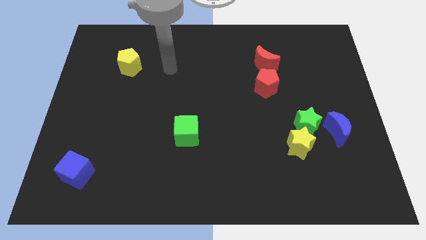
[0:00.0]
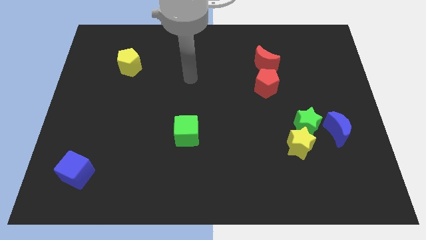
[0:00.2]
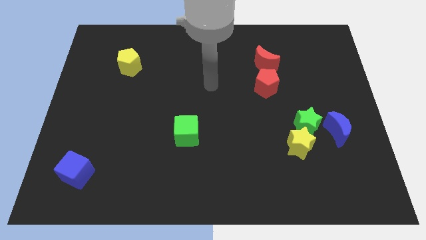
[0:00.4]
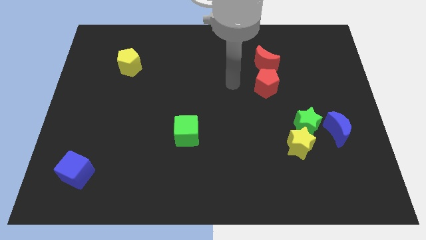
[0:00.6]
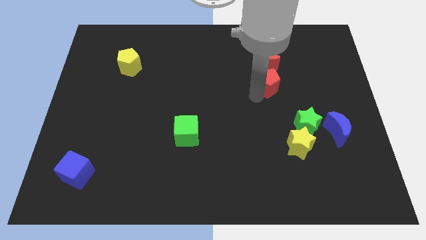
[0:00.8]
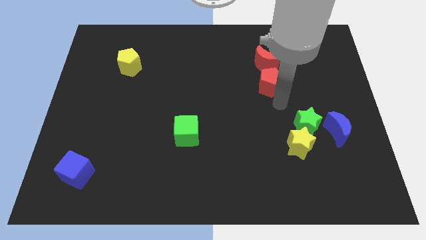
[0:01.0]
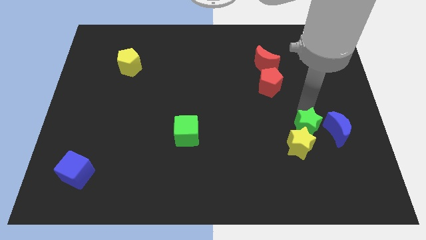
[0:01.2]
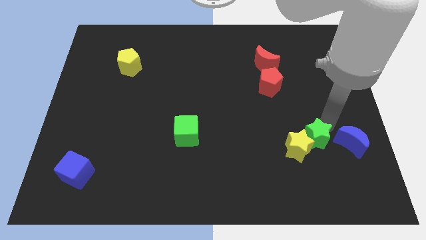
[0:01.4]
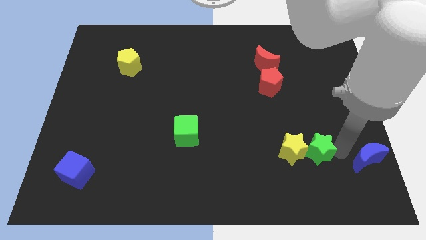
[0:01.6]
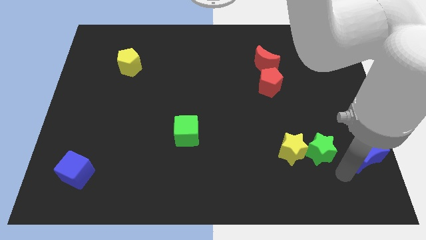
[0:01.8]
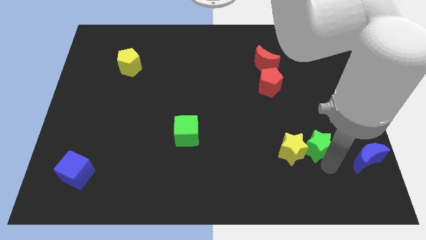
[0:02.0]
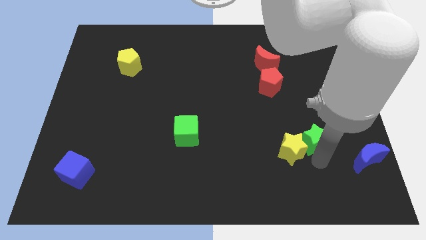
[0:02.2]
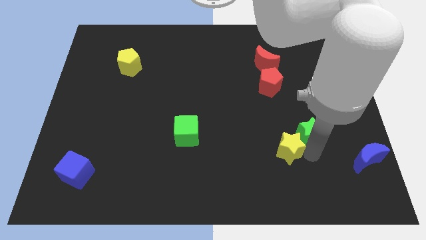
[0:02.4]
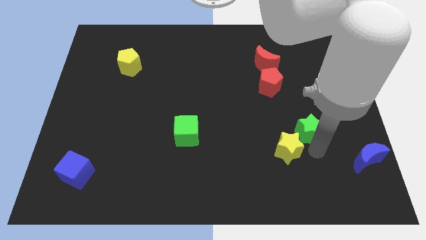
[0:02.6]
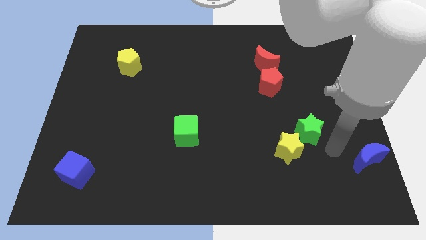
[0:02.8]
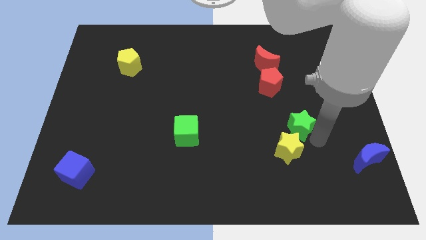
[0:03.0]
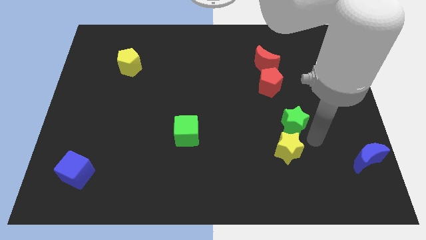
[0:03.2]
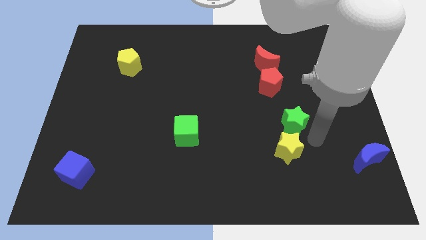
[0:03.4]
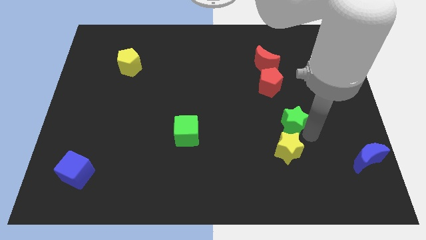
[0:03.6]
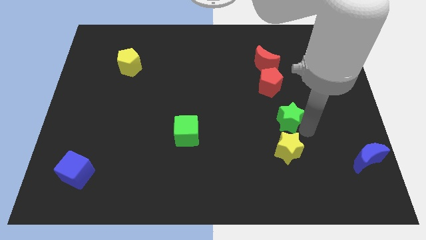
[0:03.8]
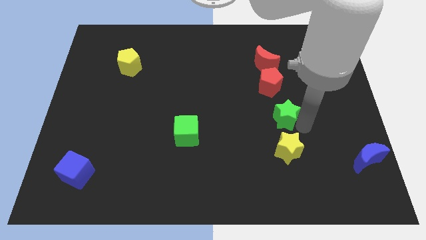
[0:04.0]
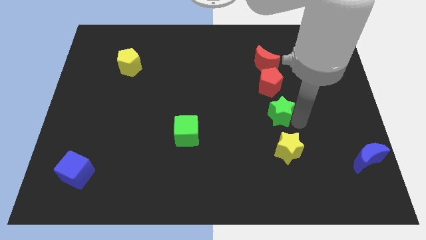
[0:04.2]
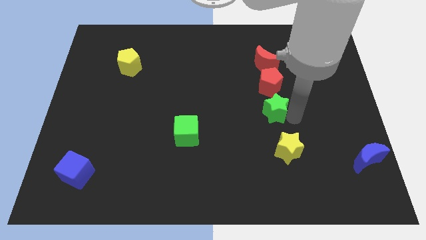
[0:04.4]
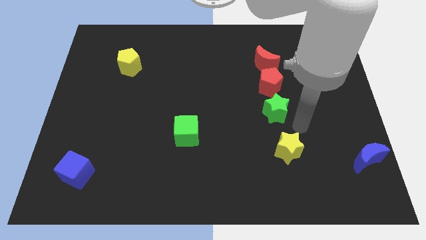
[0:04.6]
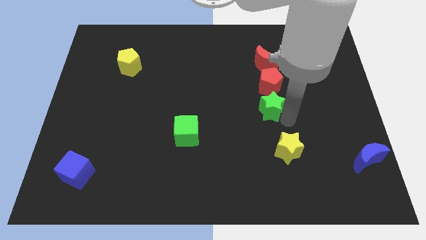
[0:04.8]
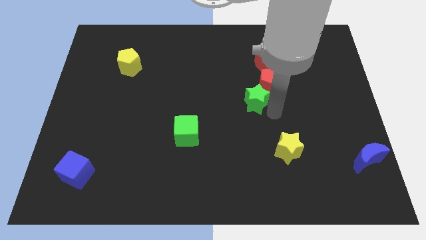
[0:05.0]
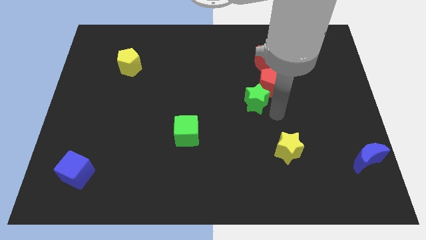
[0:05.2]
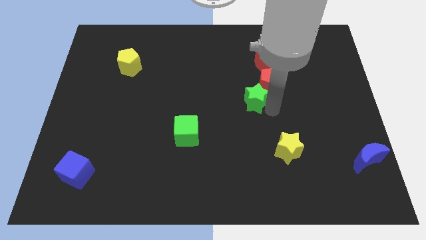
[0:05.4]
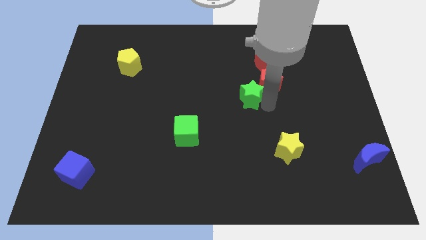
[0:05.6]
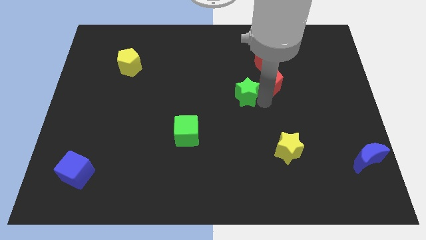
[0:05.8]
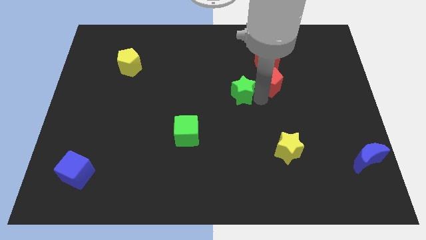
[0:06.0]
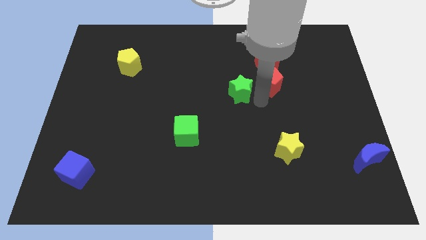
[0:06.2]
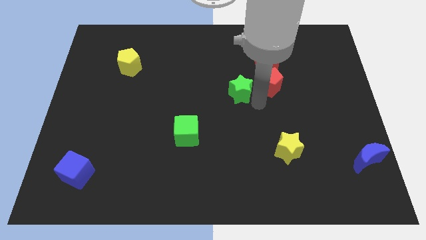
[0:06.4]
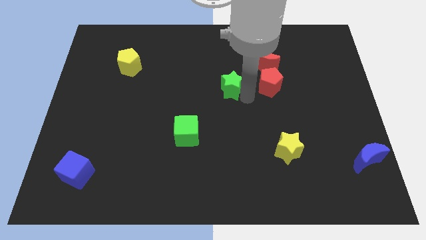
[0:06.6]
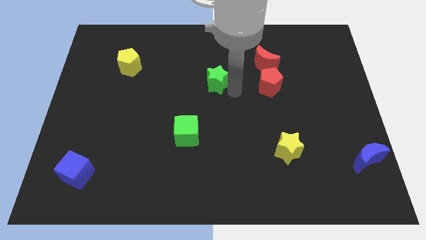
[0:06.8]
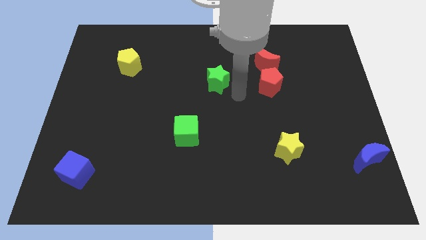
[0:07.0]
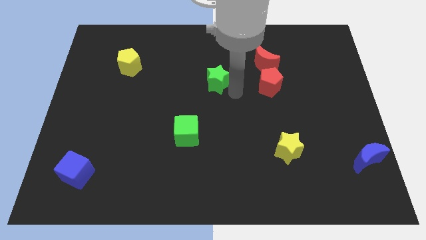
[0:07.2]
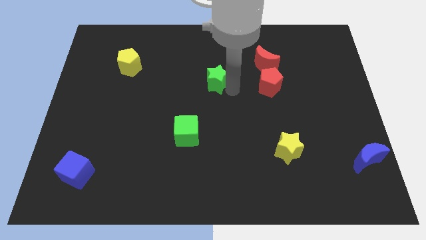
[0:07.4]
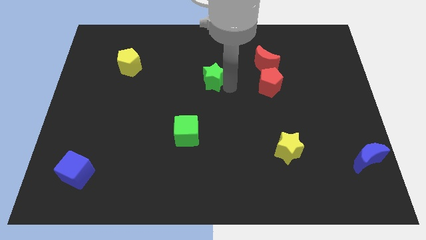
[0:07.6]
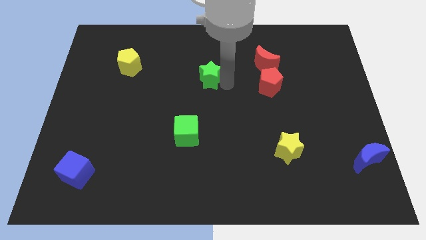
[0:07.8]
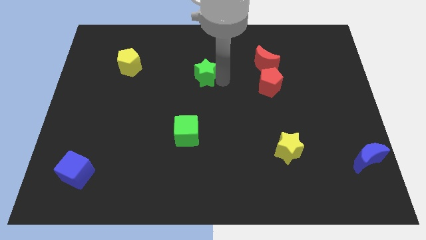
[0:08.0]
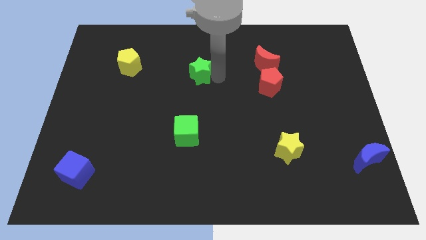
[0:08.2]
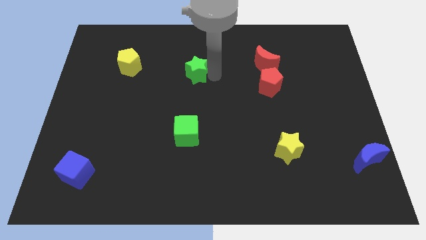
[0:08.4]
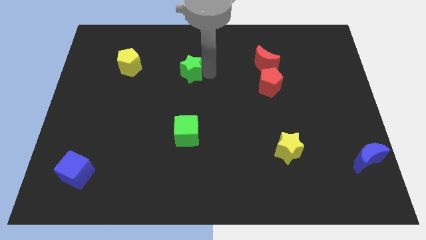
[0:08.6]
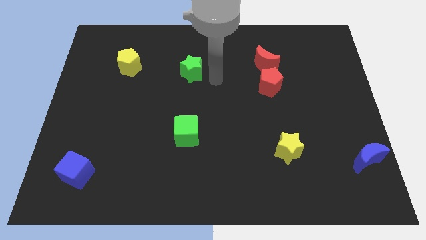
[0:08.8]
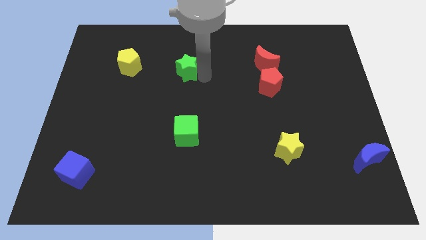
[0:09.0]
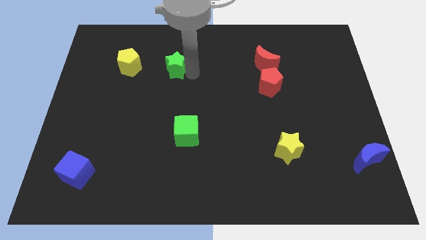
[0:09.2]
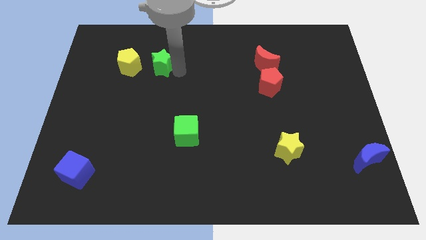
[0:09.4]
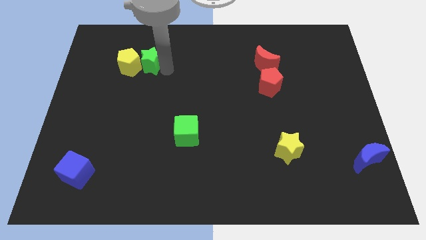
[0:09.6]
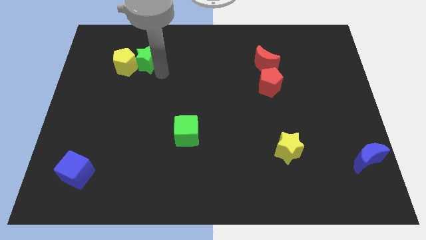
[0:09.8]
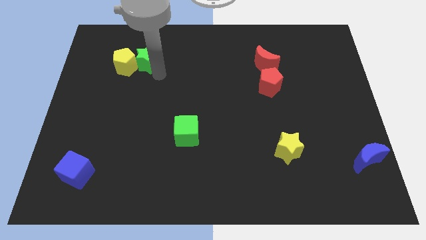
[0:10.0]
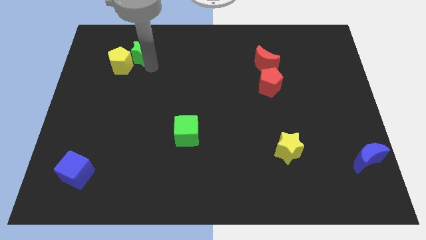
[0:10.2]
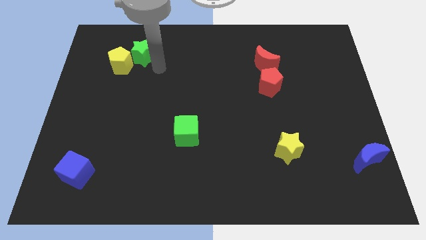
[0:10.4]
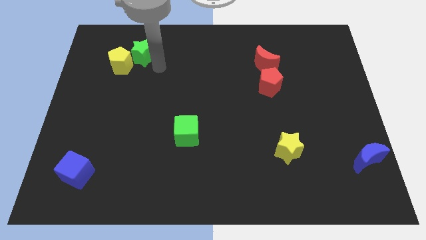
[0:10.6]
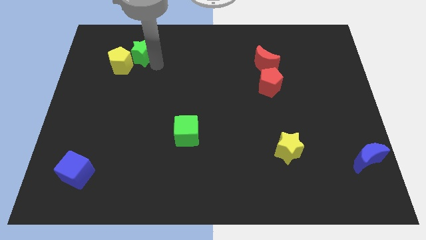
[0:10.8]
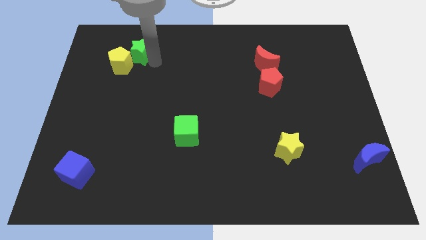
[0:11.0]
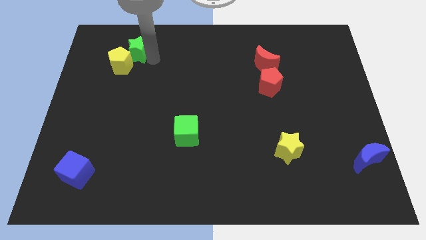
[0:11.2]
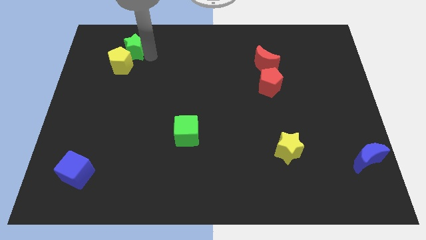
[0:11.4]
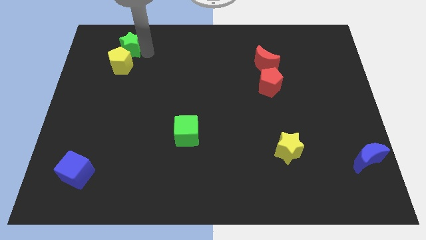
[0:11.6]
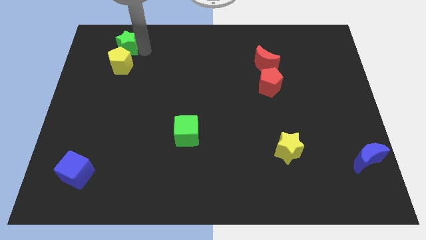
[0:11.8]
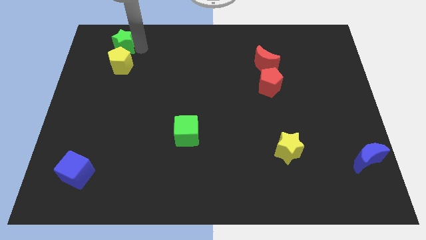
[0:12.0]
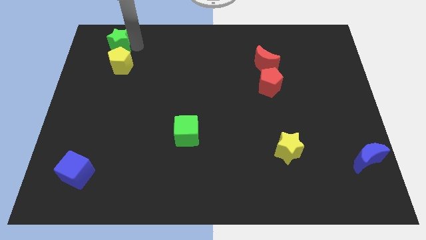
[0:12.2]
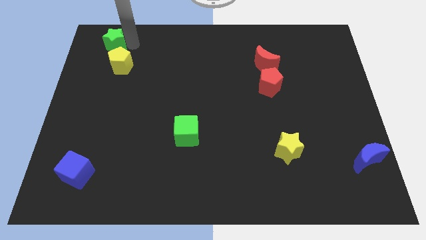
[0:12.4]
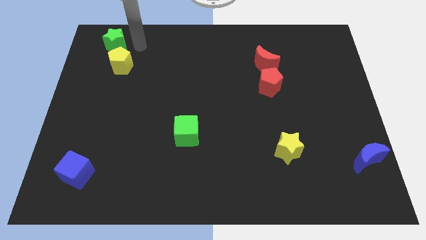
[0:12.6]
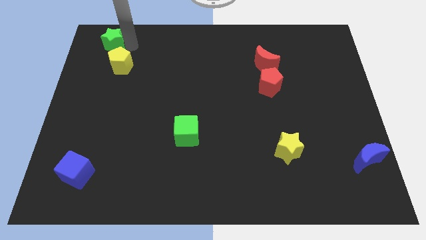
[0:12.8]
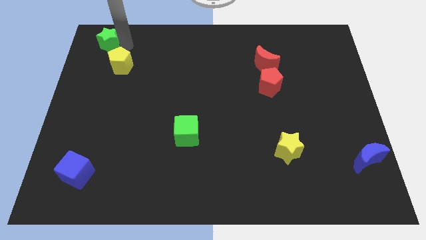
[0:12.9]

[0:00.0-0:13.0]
slide the green star to the top left of the board
